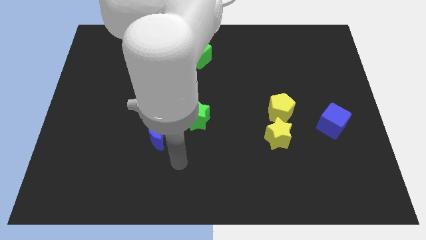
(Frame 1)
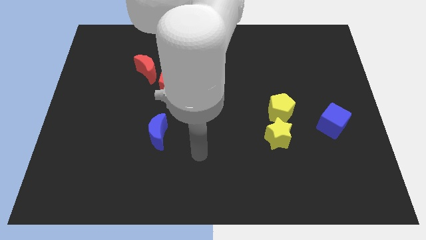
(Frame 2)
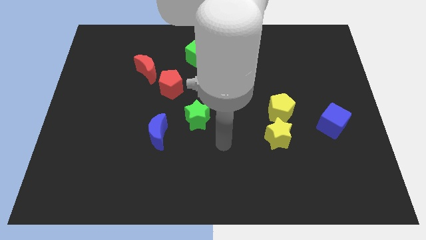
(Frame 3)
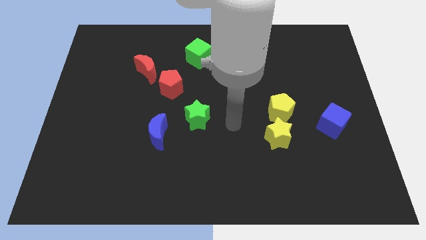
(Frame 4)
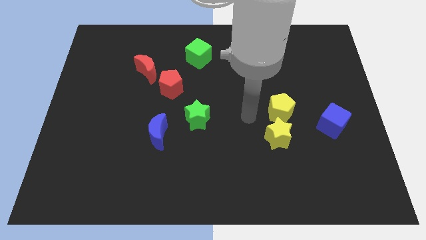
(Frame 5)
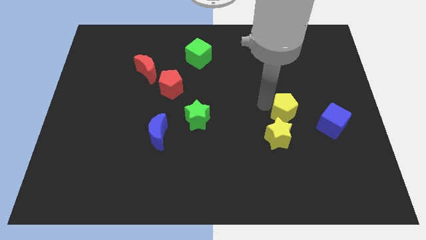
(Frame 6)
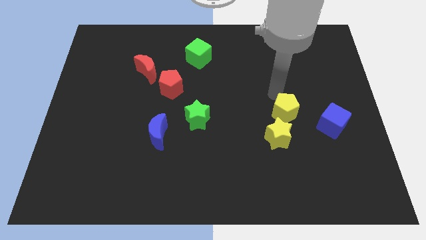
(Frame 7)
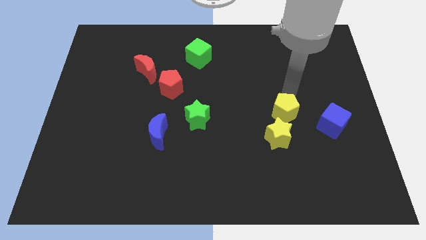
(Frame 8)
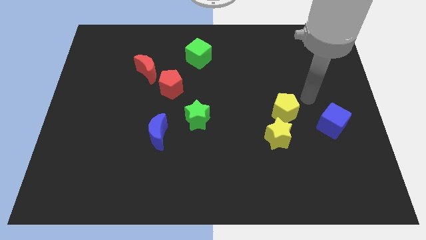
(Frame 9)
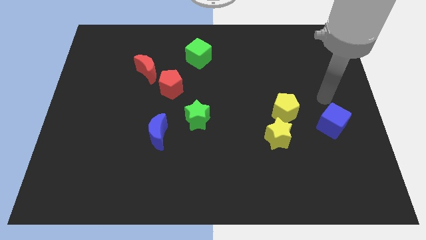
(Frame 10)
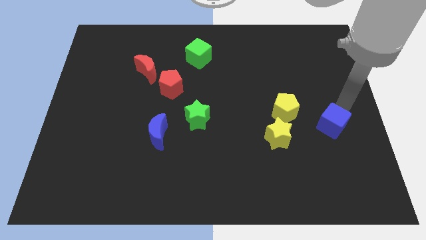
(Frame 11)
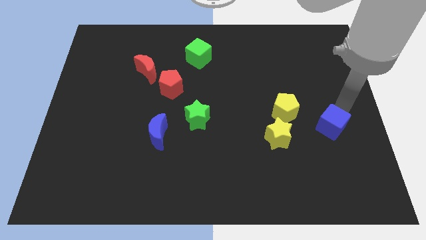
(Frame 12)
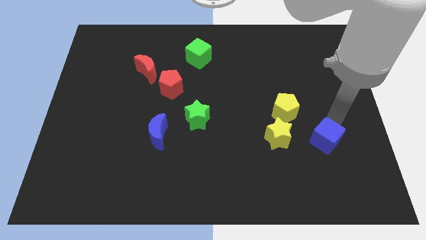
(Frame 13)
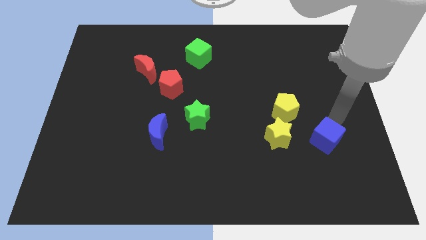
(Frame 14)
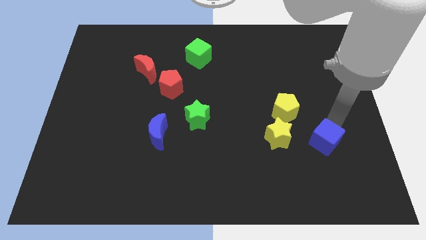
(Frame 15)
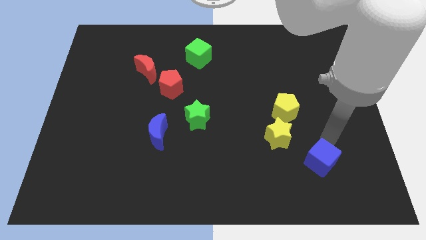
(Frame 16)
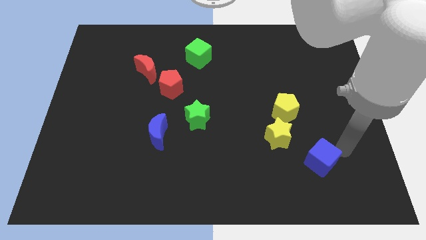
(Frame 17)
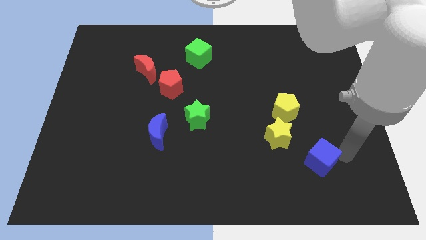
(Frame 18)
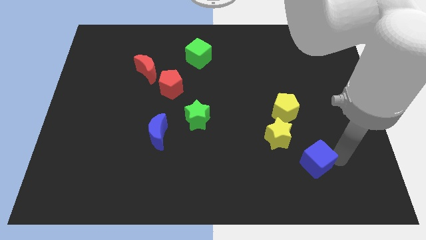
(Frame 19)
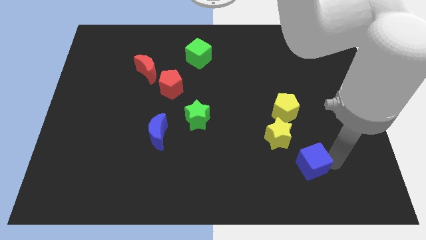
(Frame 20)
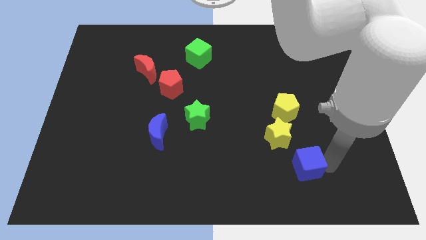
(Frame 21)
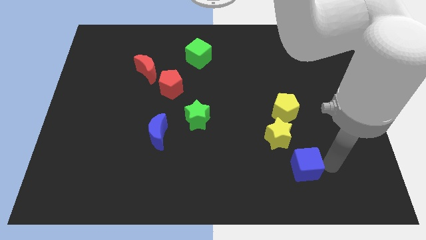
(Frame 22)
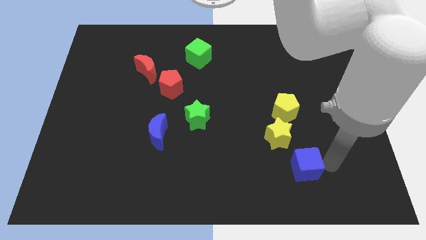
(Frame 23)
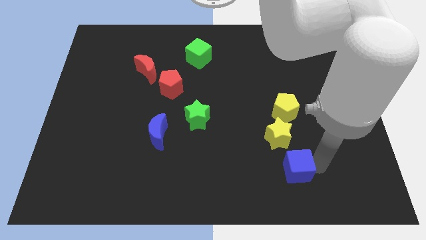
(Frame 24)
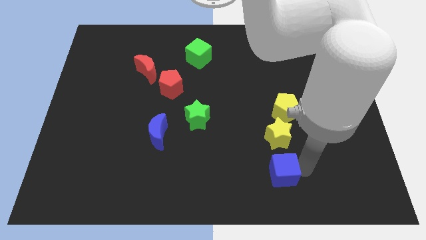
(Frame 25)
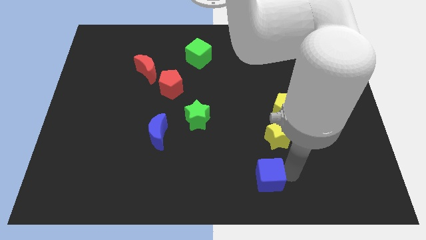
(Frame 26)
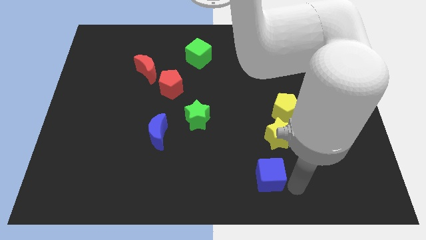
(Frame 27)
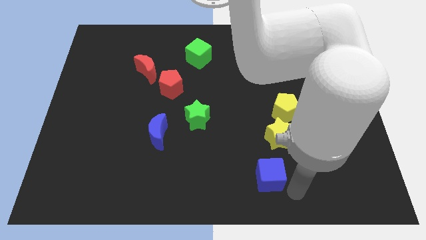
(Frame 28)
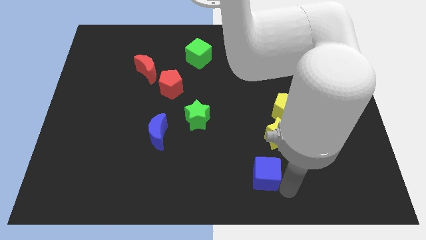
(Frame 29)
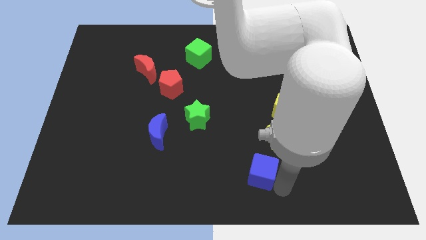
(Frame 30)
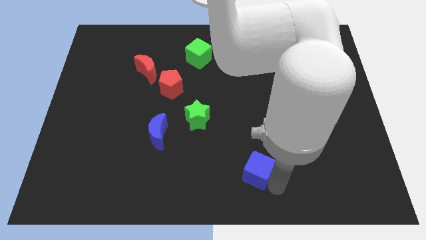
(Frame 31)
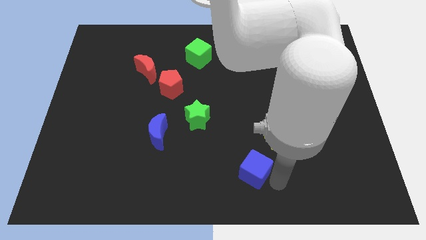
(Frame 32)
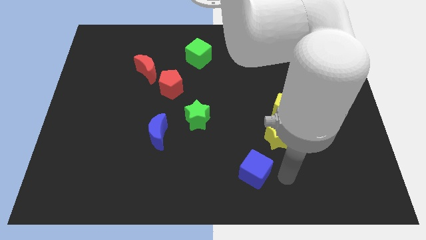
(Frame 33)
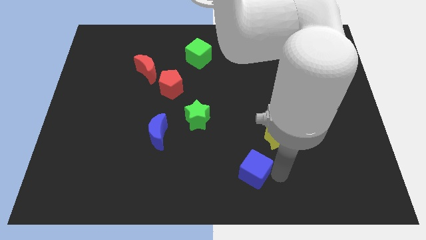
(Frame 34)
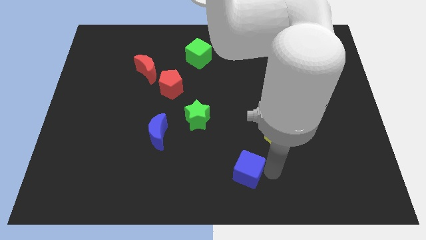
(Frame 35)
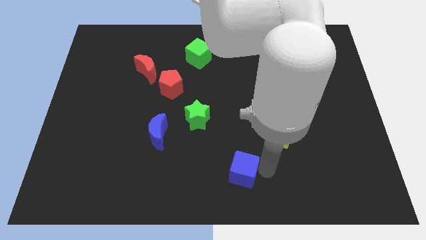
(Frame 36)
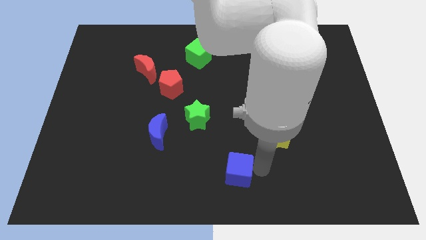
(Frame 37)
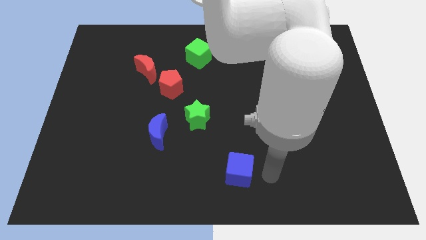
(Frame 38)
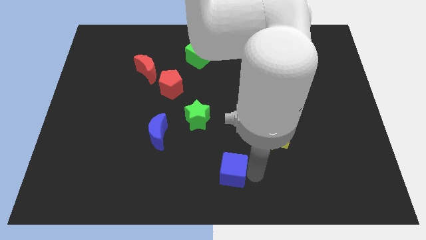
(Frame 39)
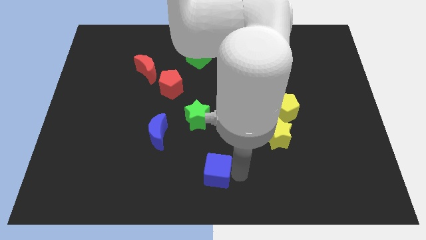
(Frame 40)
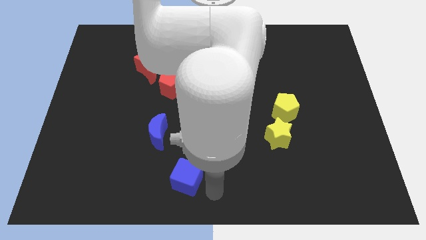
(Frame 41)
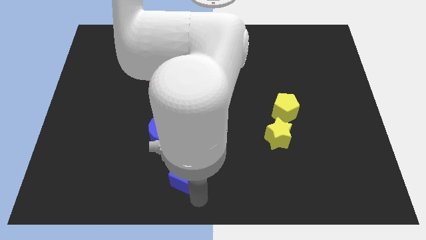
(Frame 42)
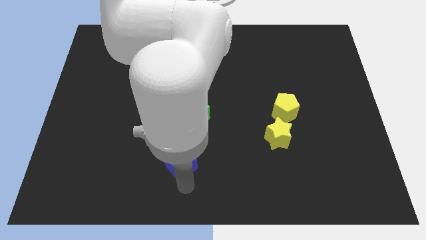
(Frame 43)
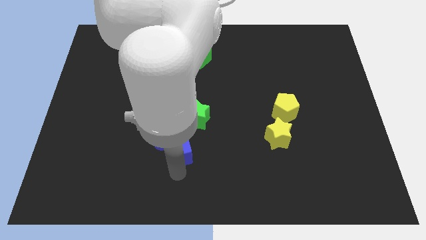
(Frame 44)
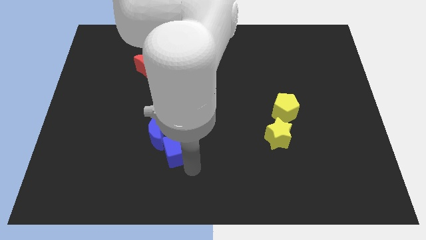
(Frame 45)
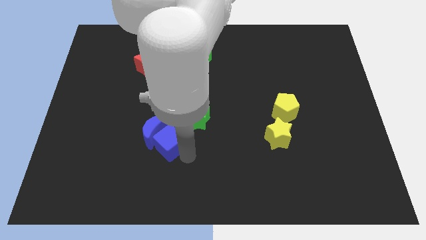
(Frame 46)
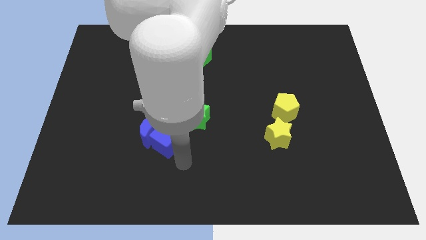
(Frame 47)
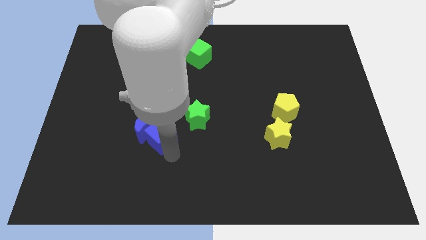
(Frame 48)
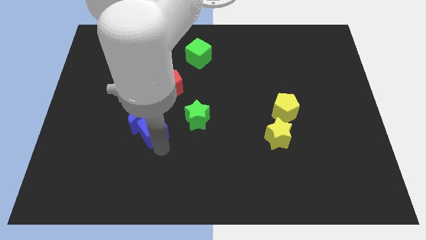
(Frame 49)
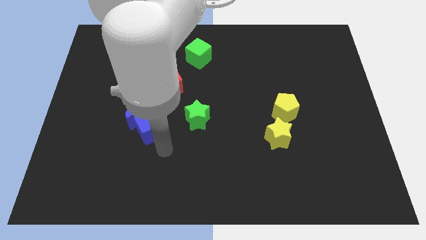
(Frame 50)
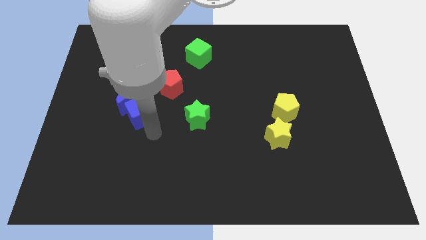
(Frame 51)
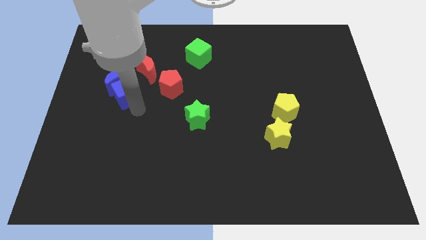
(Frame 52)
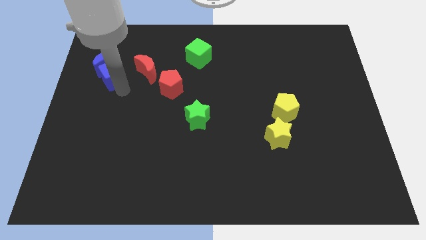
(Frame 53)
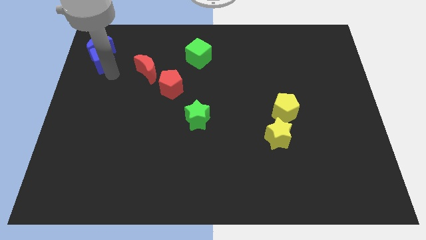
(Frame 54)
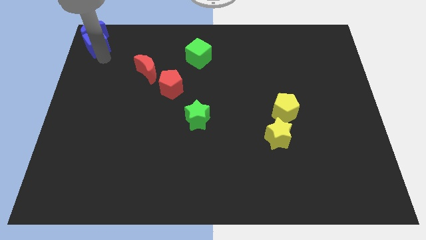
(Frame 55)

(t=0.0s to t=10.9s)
slide the blue cube to the top left

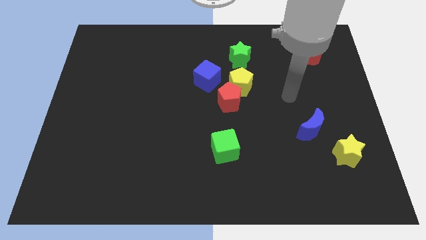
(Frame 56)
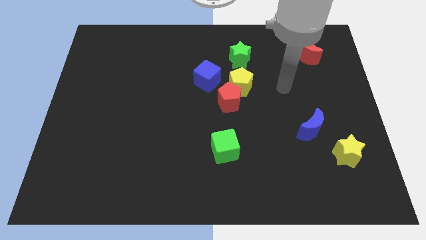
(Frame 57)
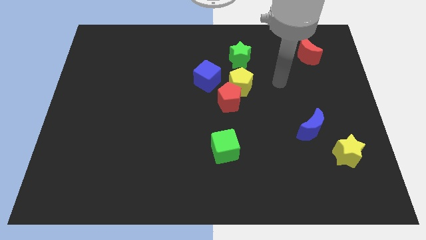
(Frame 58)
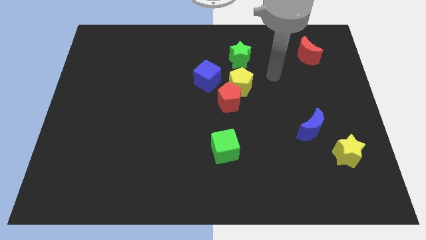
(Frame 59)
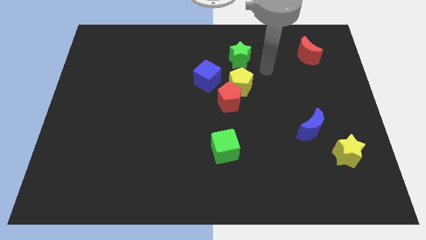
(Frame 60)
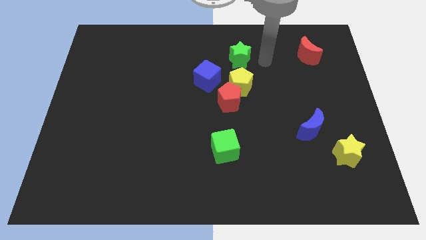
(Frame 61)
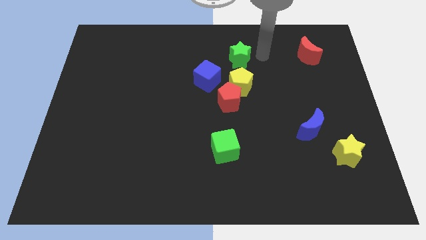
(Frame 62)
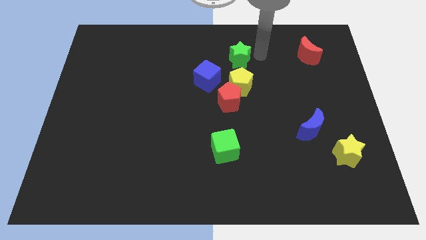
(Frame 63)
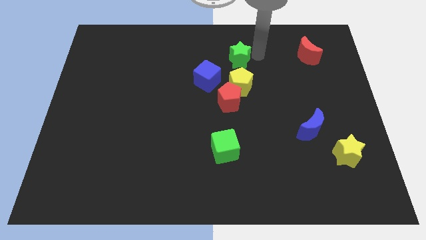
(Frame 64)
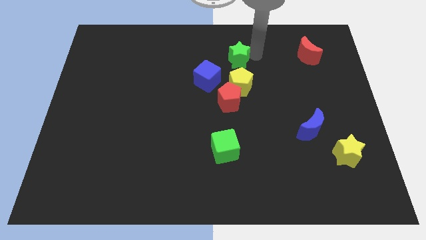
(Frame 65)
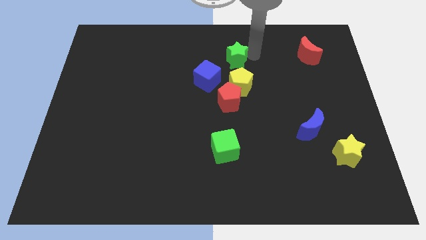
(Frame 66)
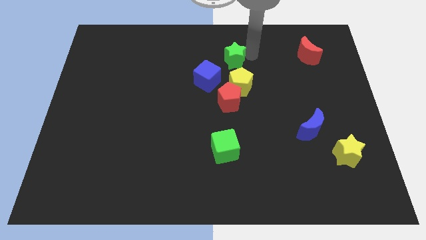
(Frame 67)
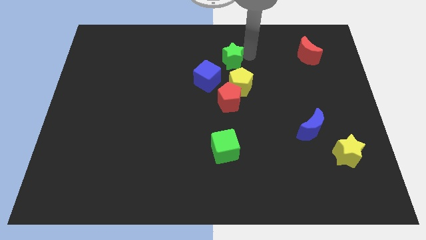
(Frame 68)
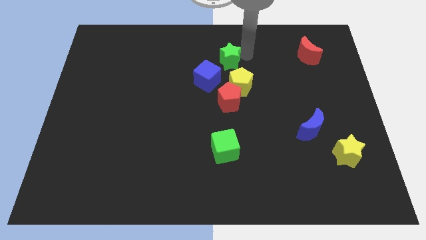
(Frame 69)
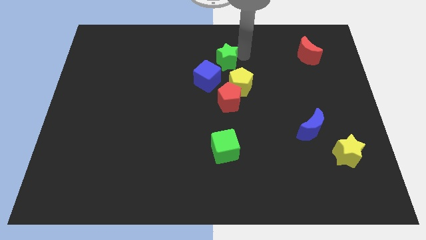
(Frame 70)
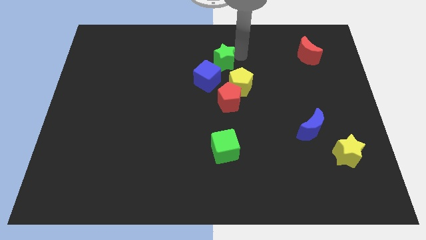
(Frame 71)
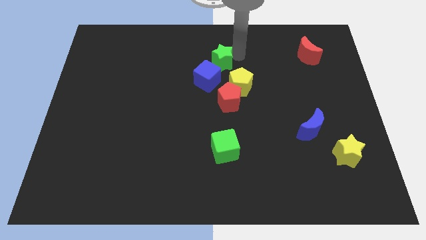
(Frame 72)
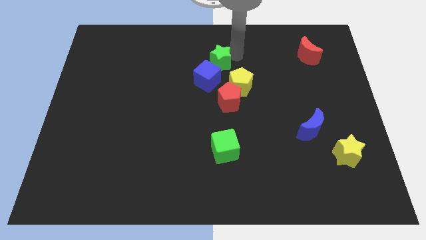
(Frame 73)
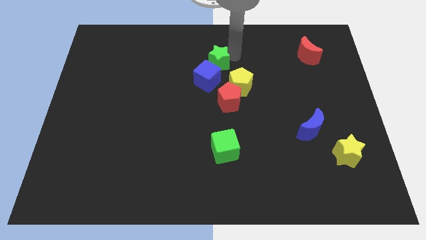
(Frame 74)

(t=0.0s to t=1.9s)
put the green star to the center of the board
